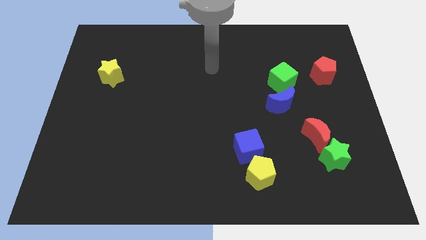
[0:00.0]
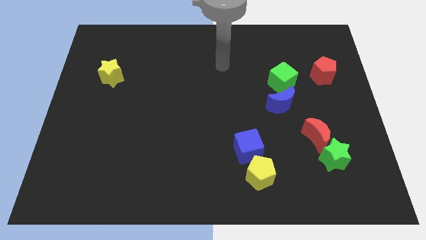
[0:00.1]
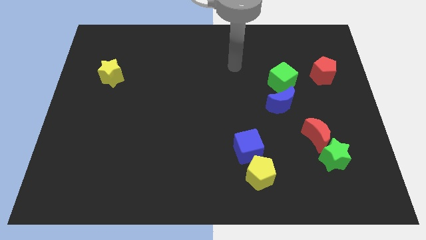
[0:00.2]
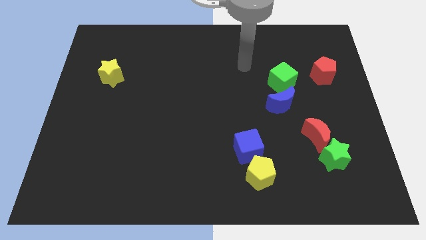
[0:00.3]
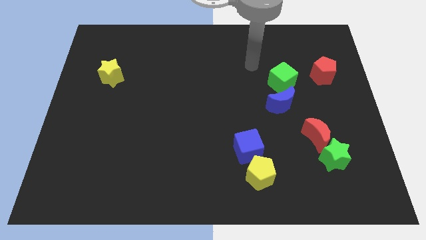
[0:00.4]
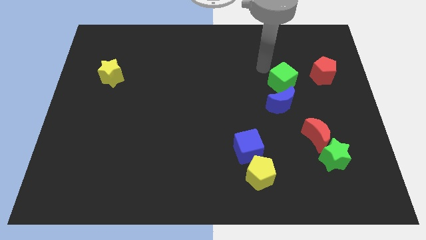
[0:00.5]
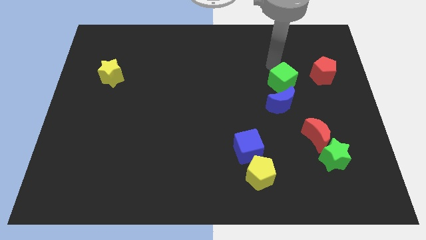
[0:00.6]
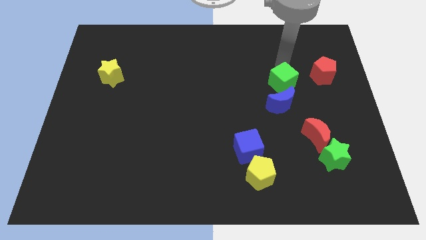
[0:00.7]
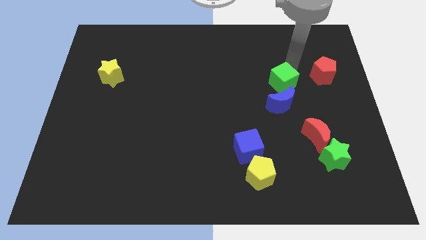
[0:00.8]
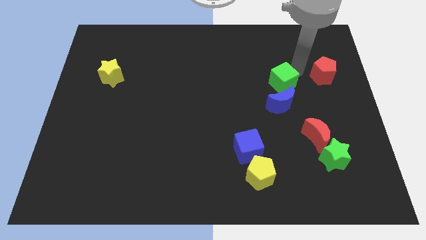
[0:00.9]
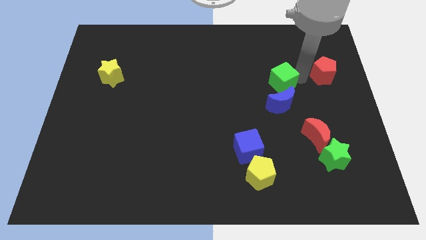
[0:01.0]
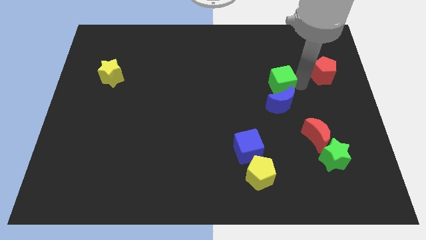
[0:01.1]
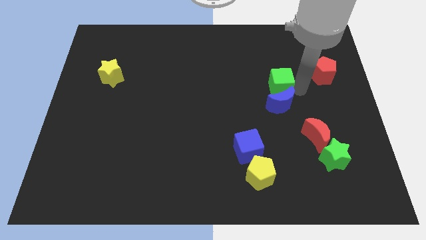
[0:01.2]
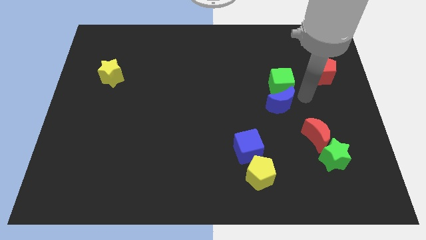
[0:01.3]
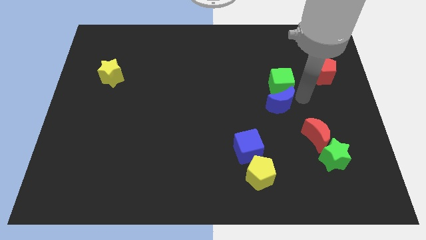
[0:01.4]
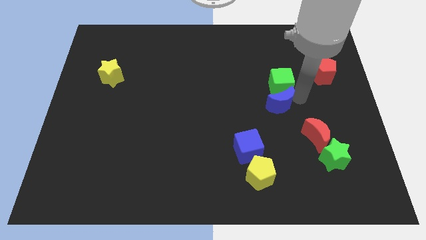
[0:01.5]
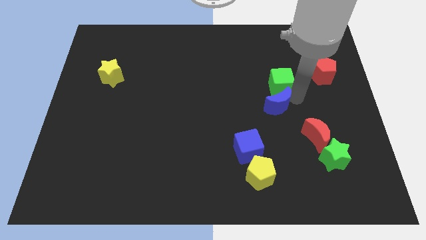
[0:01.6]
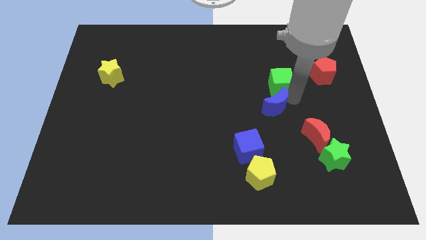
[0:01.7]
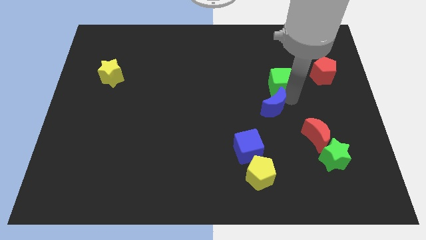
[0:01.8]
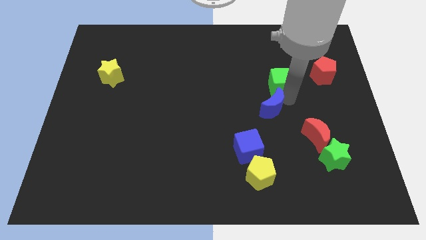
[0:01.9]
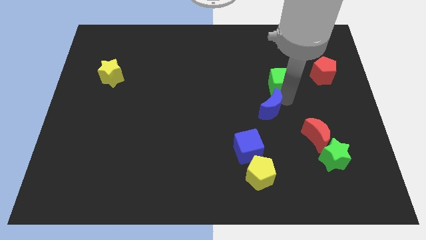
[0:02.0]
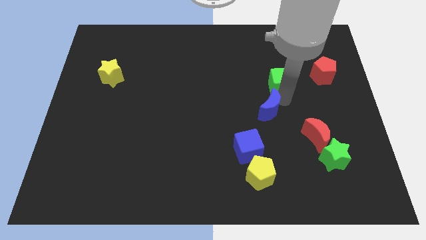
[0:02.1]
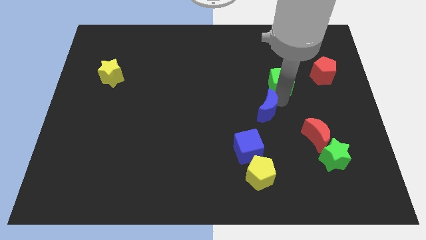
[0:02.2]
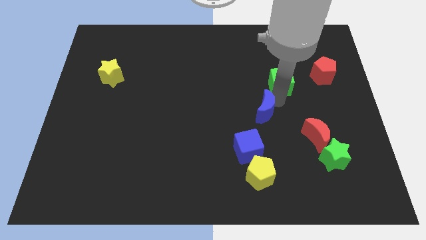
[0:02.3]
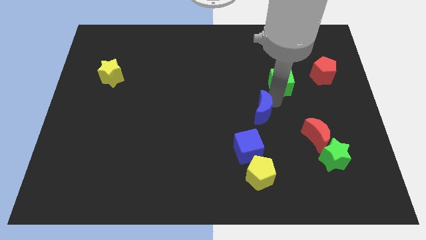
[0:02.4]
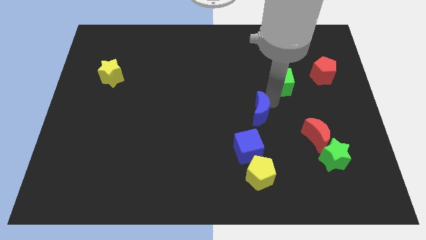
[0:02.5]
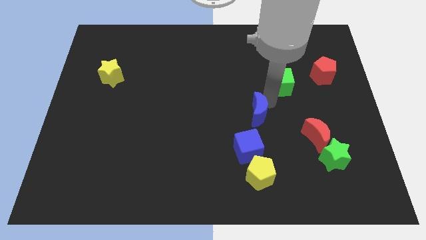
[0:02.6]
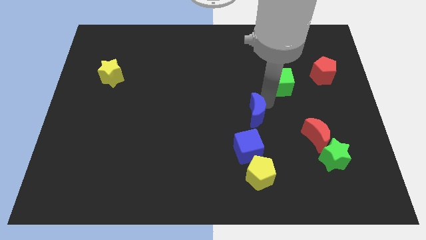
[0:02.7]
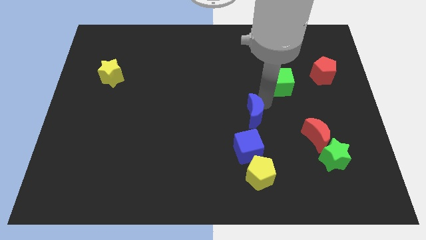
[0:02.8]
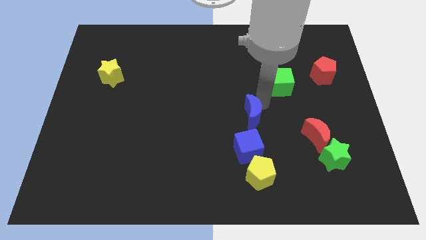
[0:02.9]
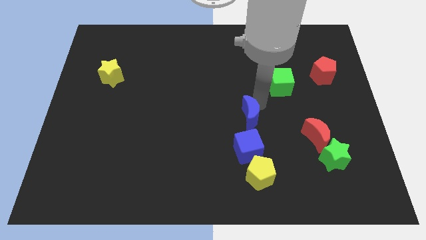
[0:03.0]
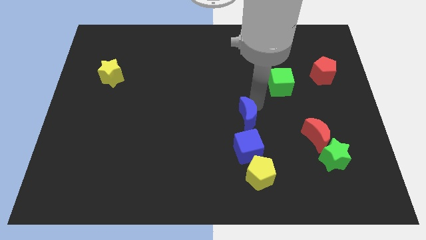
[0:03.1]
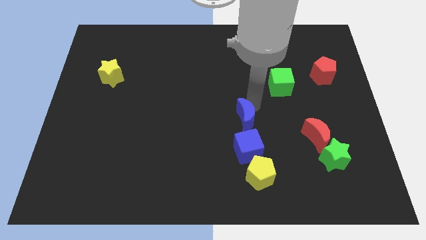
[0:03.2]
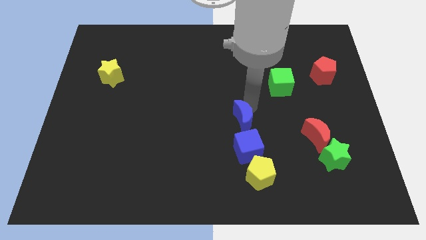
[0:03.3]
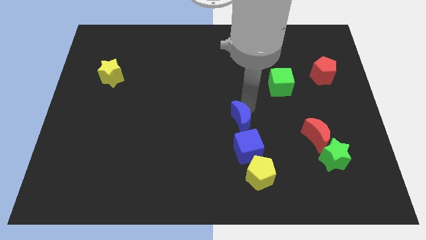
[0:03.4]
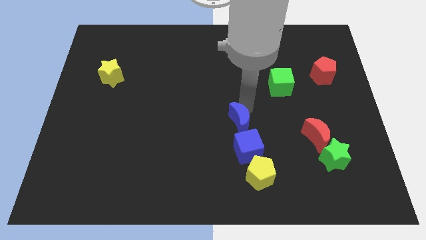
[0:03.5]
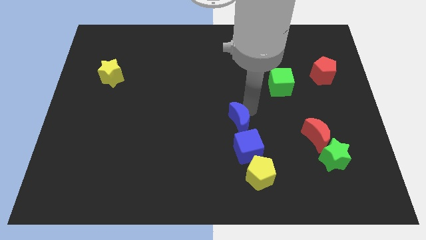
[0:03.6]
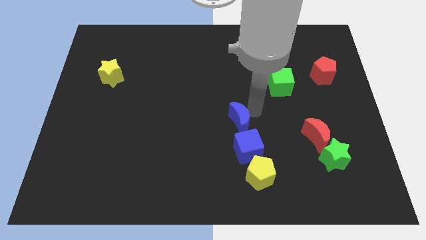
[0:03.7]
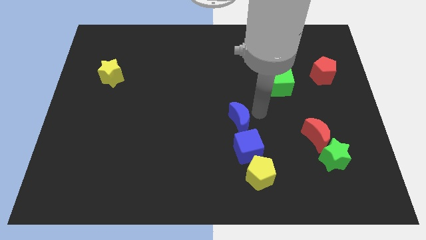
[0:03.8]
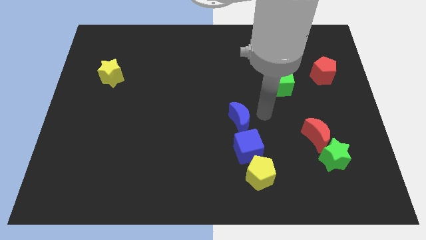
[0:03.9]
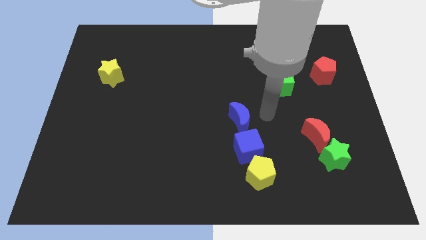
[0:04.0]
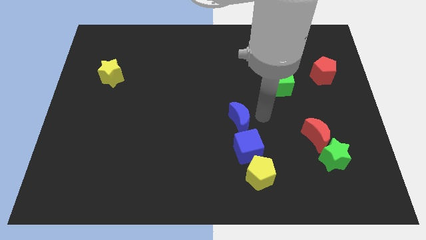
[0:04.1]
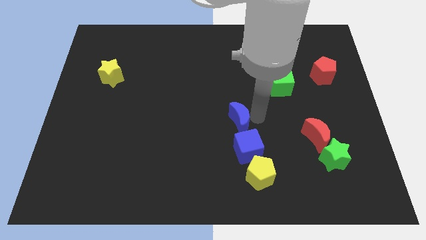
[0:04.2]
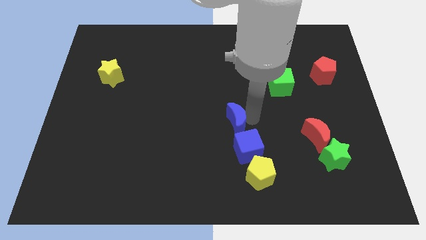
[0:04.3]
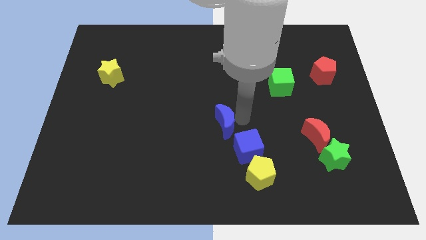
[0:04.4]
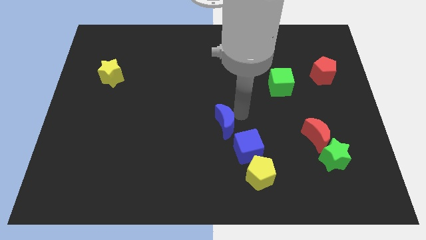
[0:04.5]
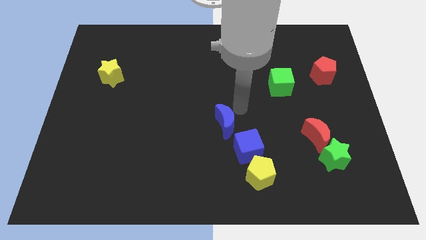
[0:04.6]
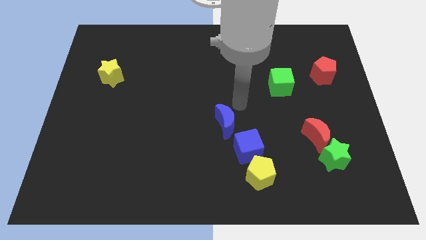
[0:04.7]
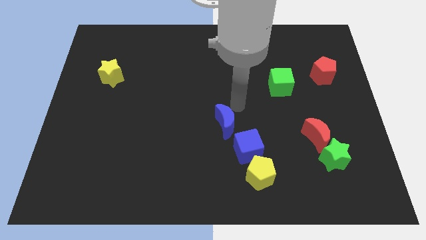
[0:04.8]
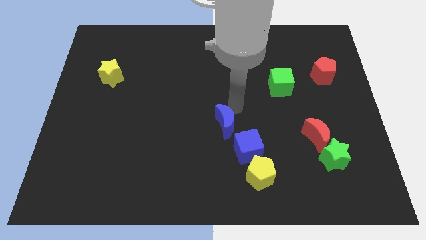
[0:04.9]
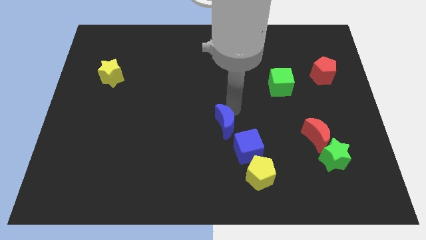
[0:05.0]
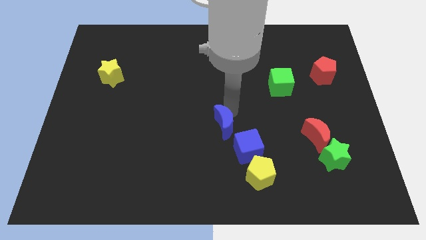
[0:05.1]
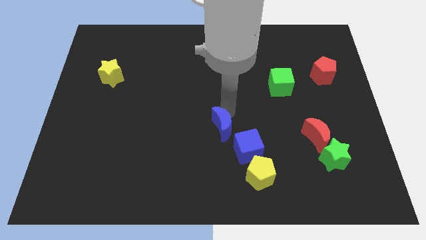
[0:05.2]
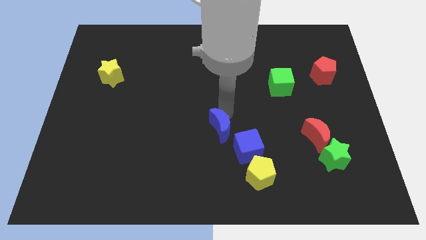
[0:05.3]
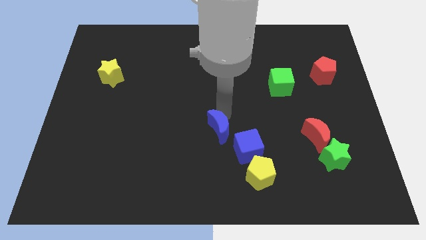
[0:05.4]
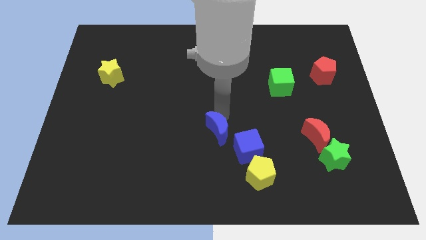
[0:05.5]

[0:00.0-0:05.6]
move the blue moon just left of the blue cube

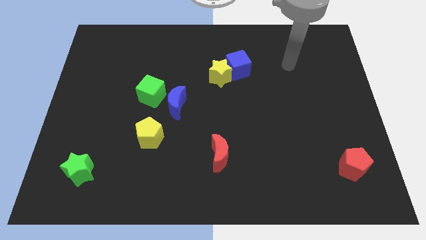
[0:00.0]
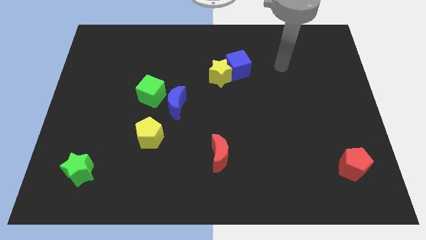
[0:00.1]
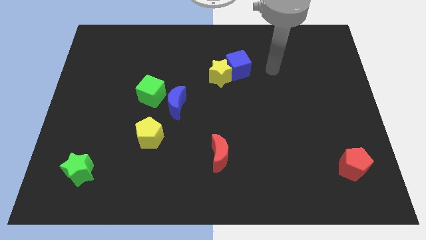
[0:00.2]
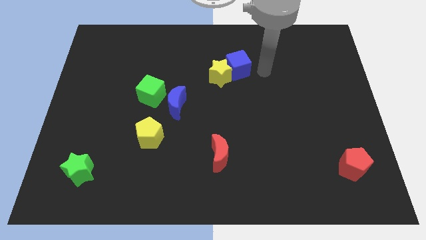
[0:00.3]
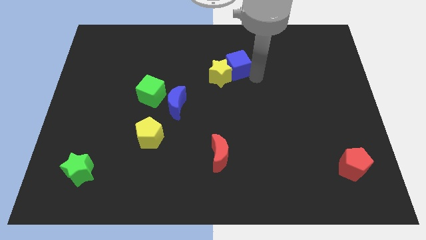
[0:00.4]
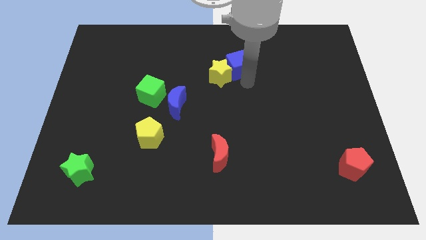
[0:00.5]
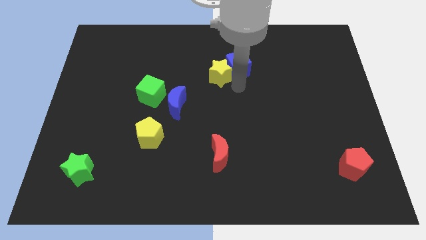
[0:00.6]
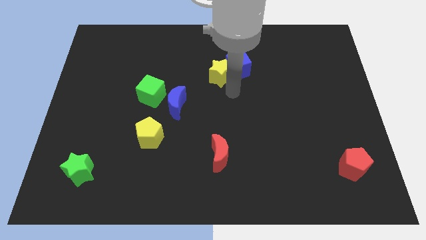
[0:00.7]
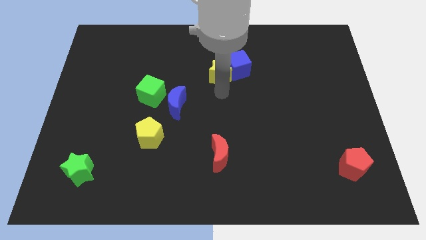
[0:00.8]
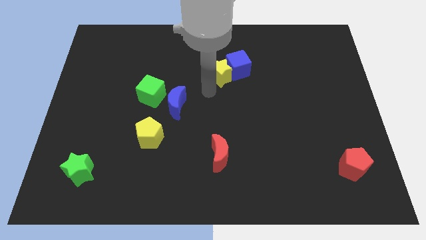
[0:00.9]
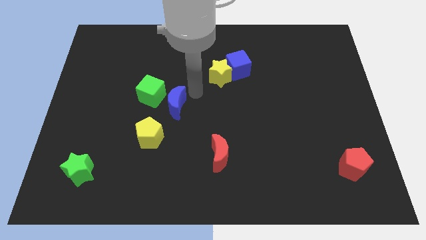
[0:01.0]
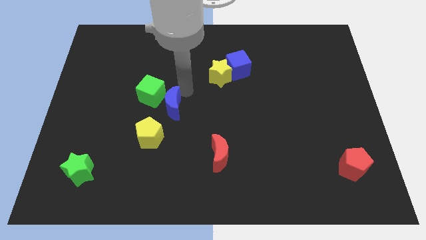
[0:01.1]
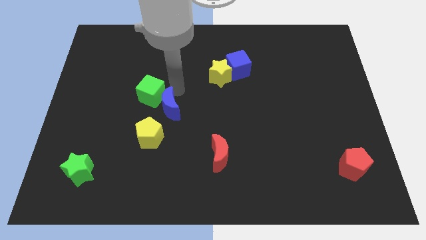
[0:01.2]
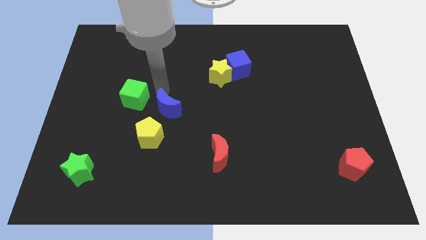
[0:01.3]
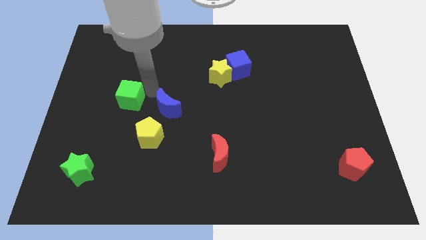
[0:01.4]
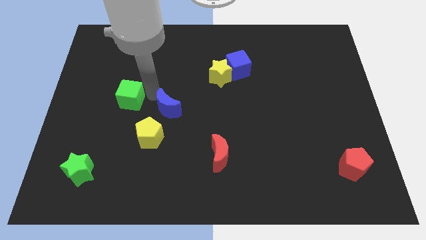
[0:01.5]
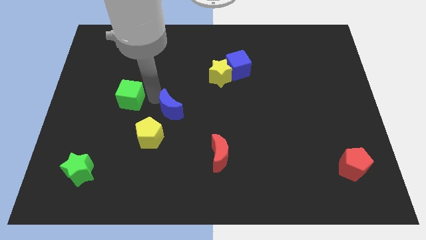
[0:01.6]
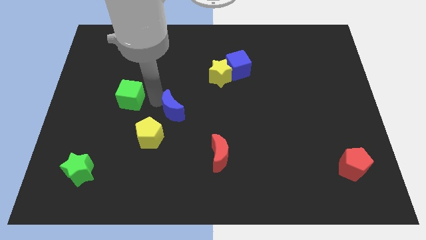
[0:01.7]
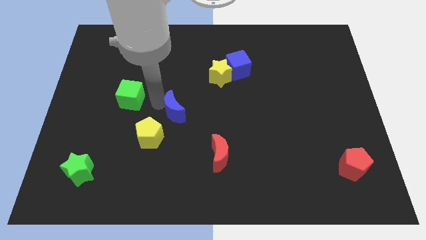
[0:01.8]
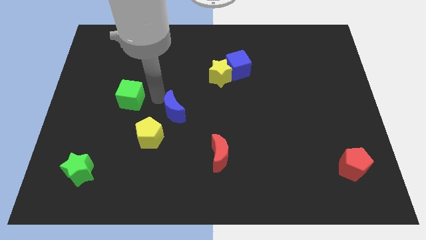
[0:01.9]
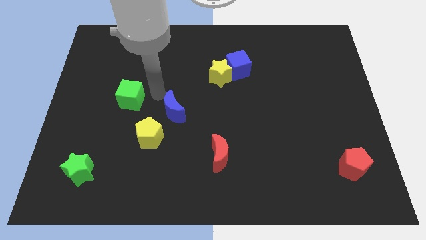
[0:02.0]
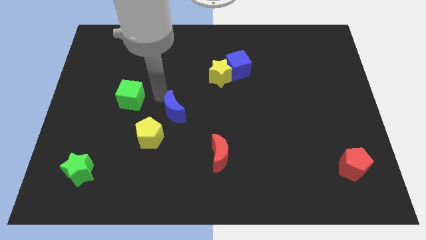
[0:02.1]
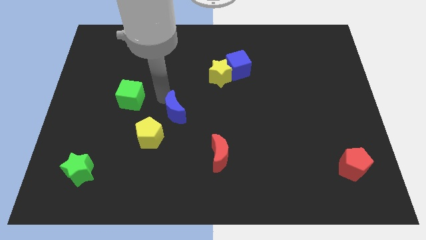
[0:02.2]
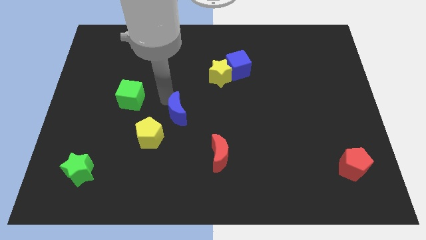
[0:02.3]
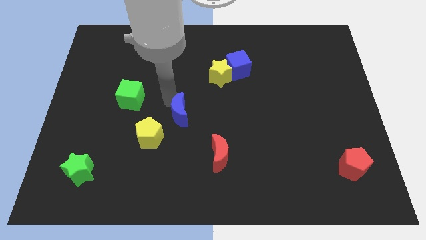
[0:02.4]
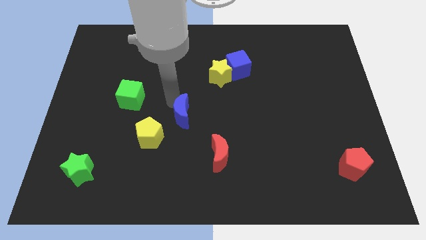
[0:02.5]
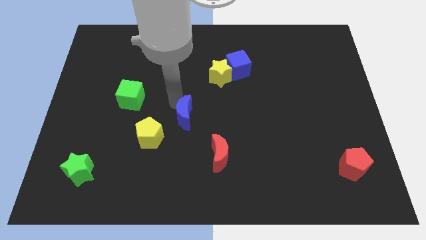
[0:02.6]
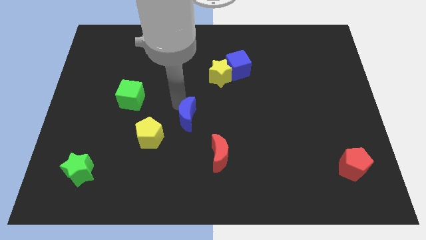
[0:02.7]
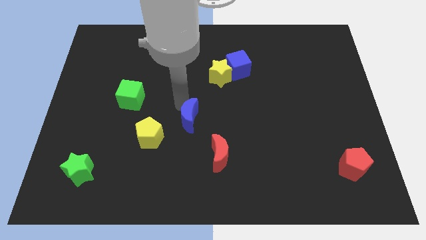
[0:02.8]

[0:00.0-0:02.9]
push the blue moon to the right side of the yellow pentagon
